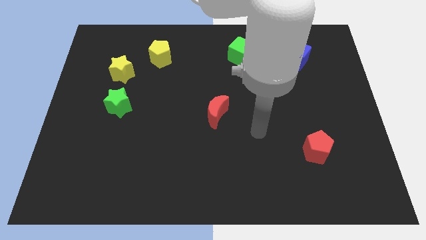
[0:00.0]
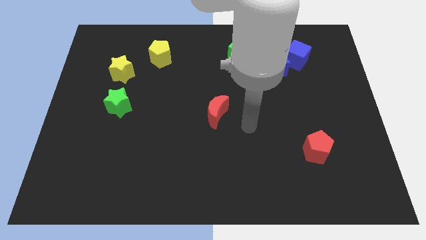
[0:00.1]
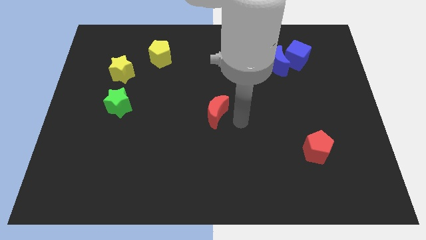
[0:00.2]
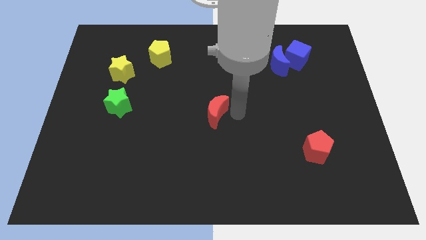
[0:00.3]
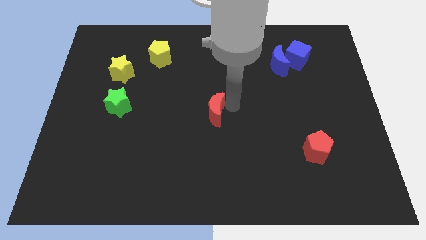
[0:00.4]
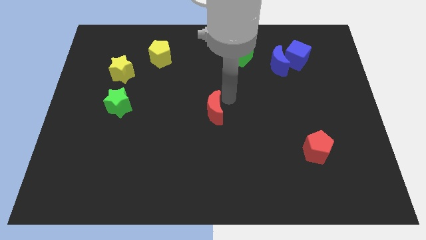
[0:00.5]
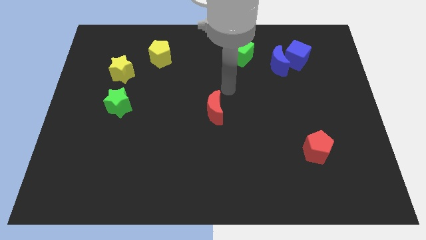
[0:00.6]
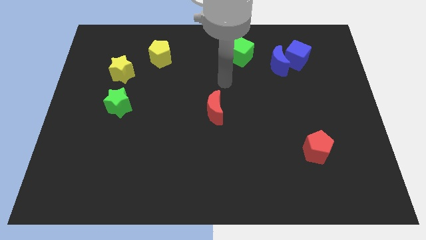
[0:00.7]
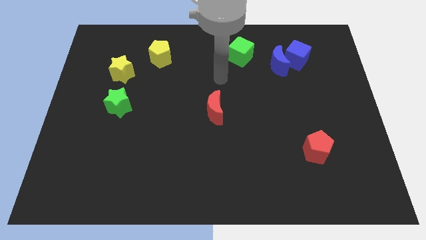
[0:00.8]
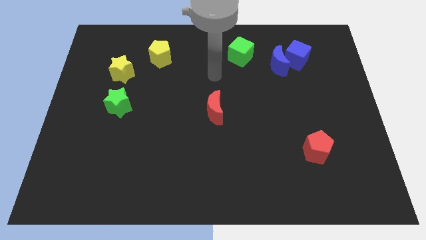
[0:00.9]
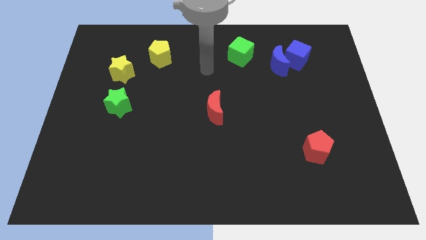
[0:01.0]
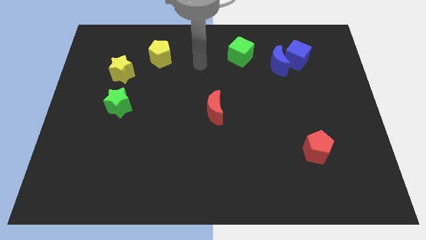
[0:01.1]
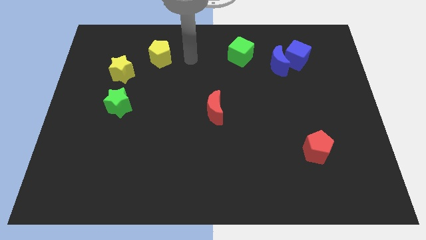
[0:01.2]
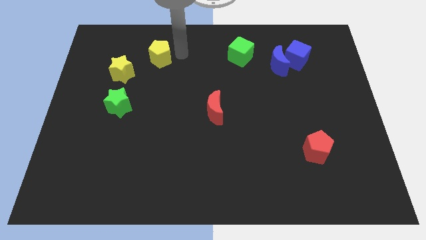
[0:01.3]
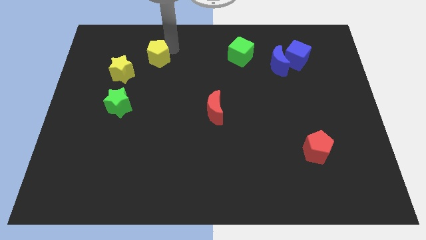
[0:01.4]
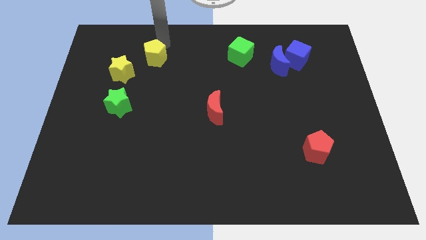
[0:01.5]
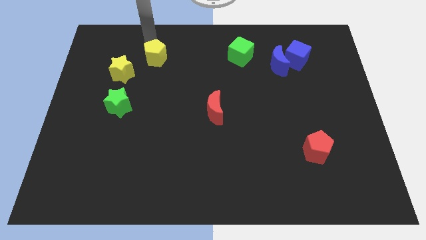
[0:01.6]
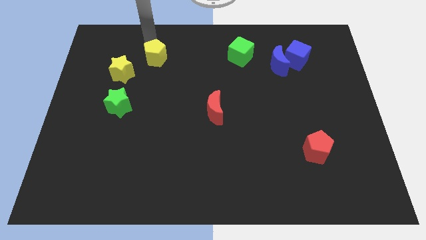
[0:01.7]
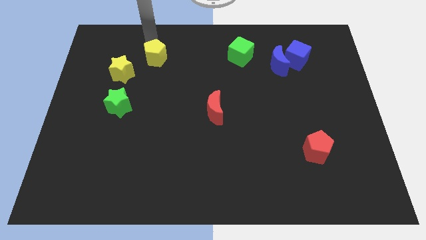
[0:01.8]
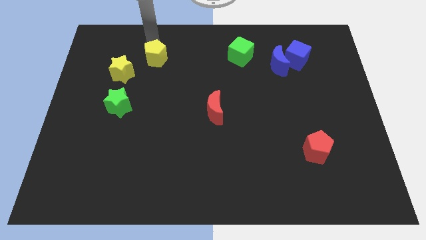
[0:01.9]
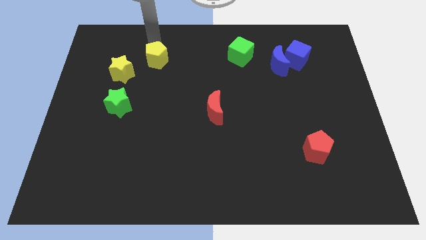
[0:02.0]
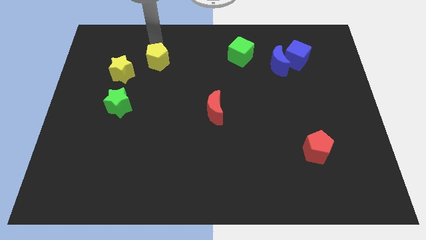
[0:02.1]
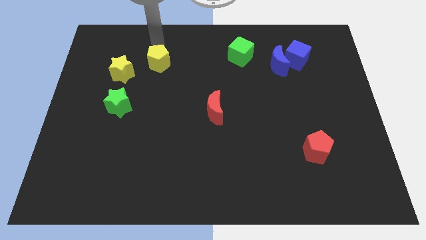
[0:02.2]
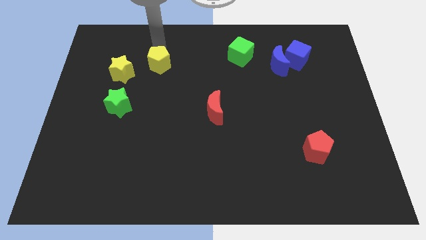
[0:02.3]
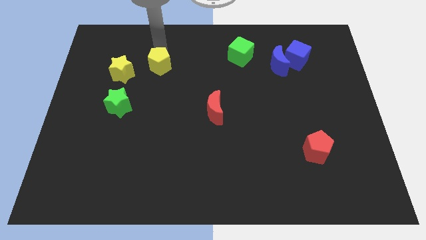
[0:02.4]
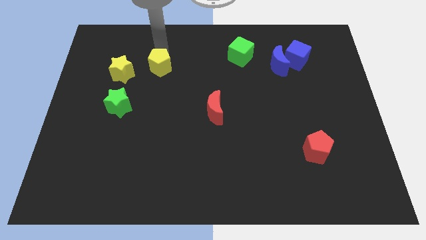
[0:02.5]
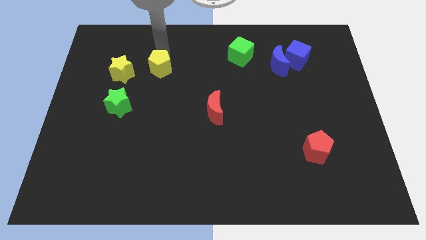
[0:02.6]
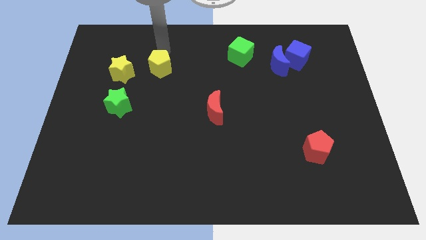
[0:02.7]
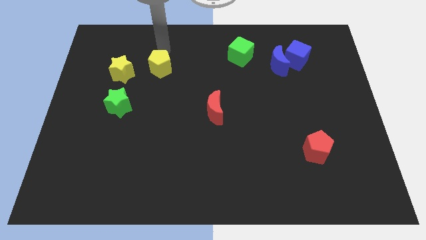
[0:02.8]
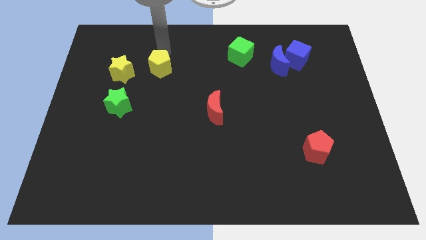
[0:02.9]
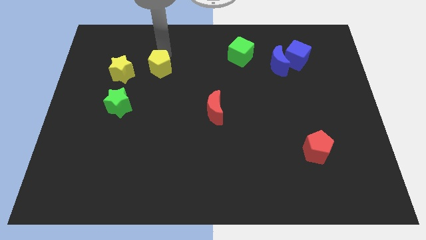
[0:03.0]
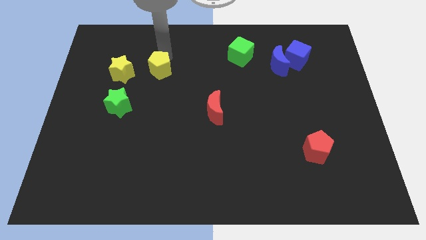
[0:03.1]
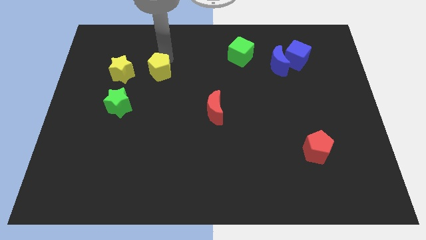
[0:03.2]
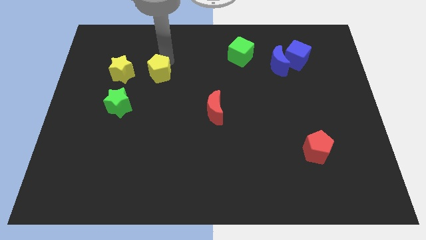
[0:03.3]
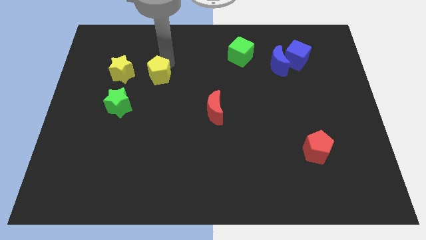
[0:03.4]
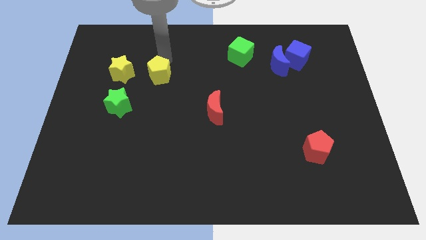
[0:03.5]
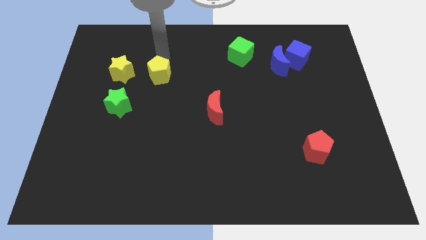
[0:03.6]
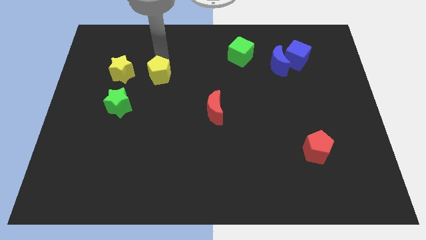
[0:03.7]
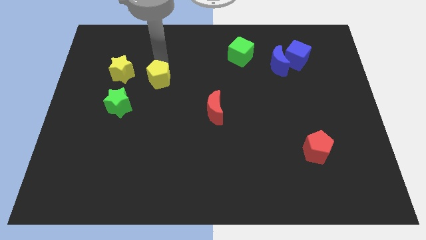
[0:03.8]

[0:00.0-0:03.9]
slightly push the yellow pentagon down

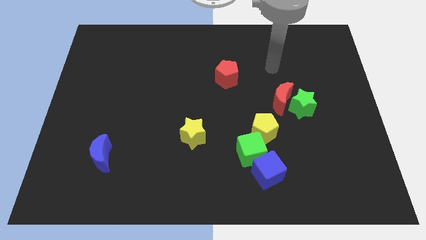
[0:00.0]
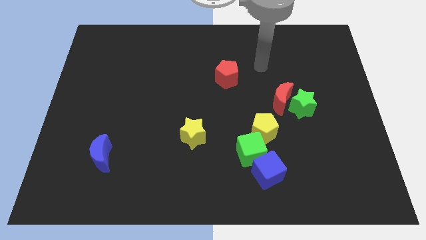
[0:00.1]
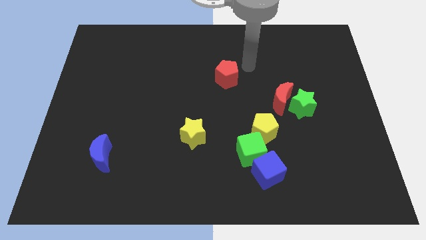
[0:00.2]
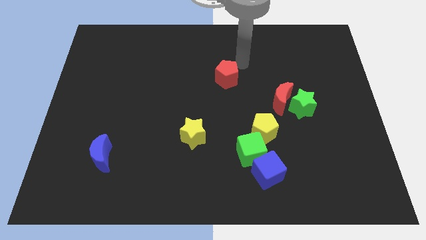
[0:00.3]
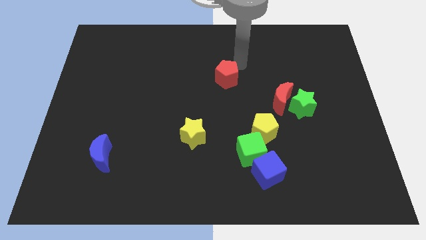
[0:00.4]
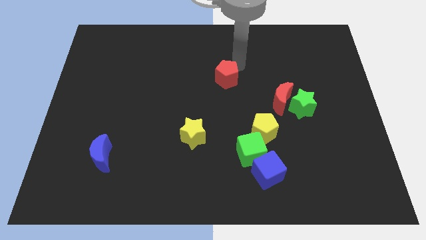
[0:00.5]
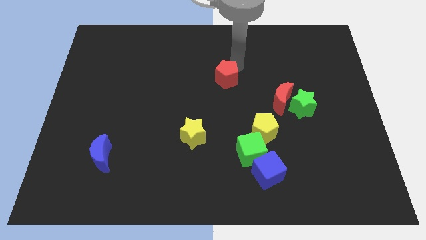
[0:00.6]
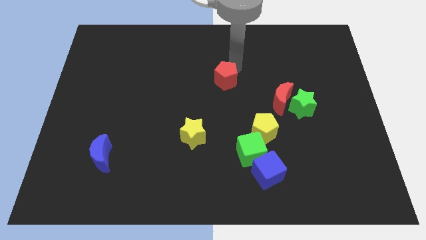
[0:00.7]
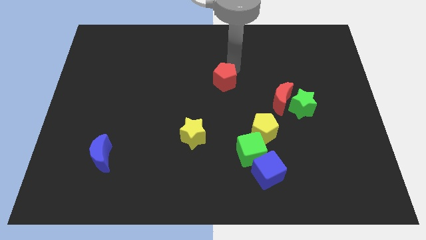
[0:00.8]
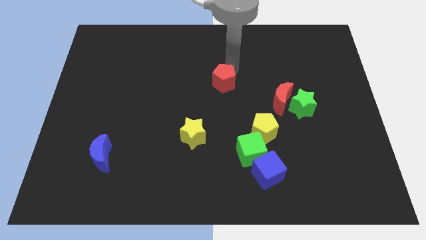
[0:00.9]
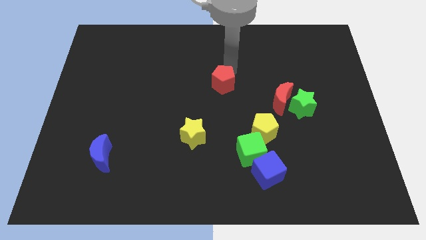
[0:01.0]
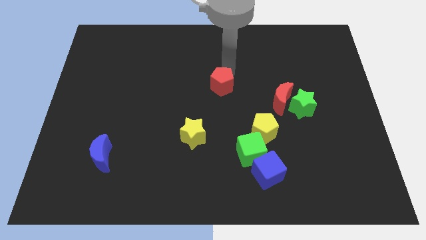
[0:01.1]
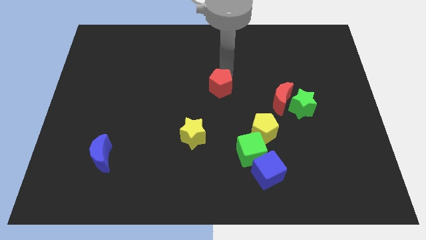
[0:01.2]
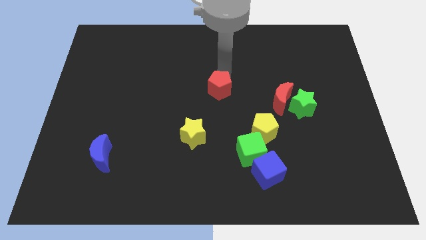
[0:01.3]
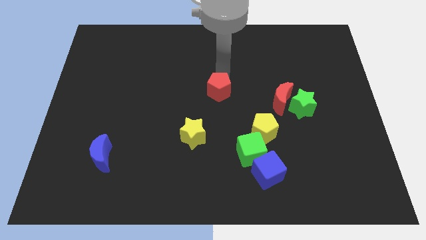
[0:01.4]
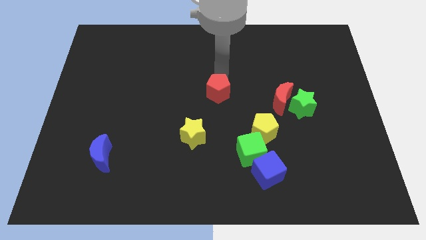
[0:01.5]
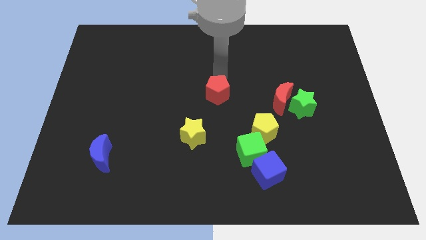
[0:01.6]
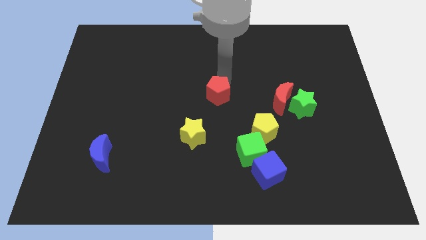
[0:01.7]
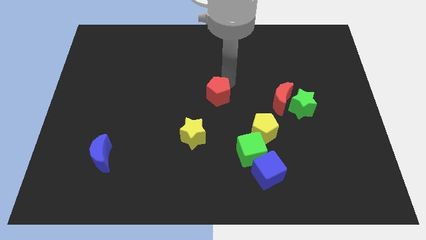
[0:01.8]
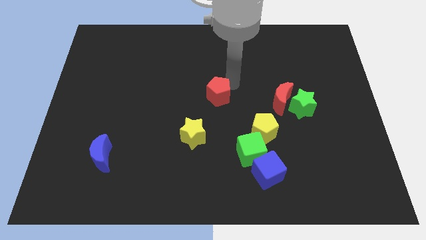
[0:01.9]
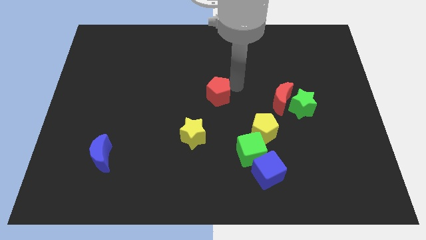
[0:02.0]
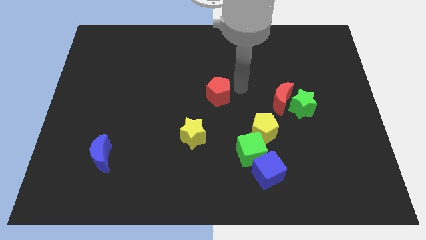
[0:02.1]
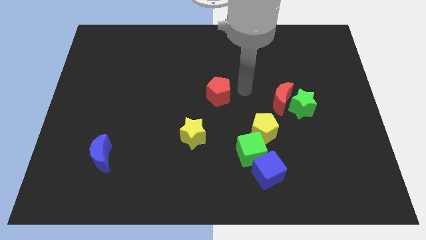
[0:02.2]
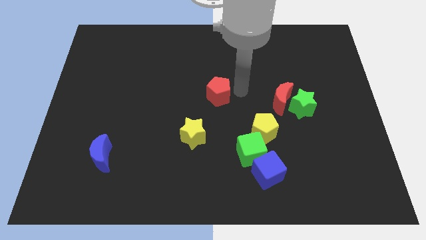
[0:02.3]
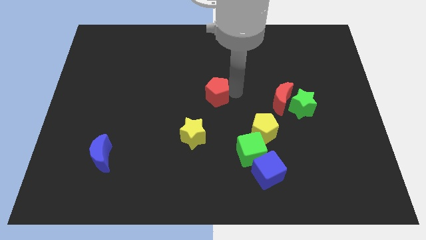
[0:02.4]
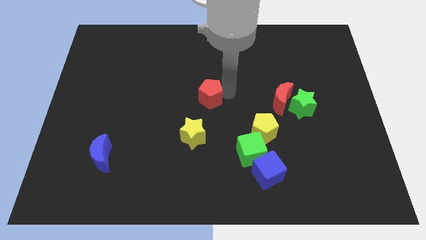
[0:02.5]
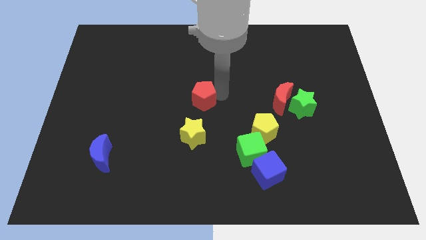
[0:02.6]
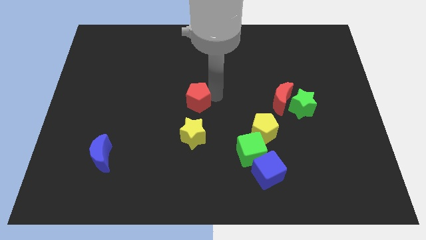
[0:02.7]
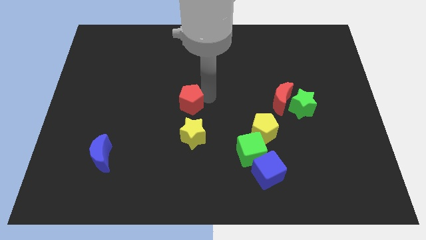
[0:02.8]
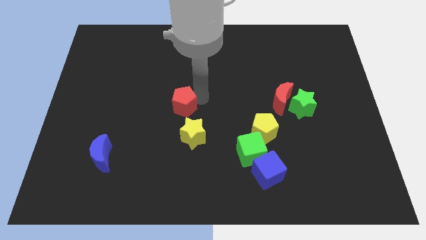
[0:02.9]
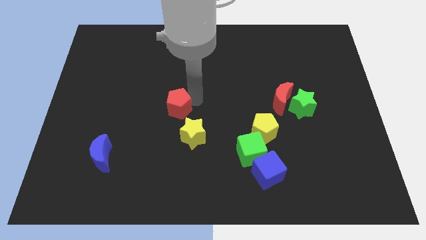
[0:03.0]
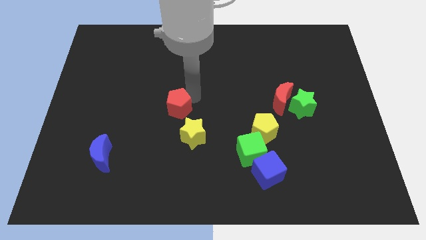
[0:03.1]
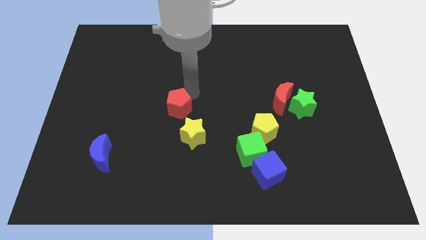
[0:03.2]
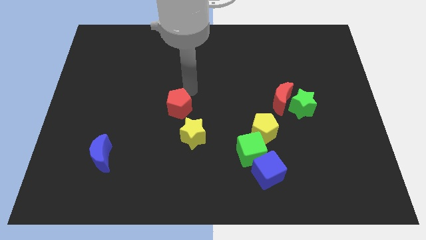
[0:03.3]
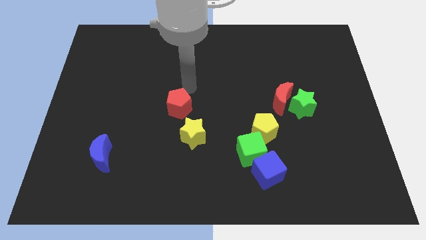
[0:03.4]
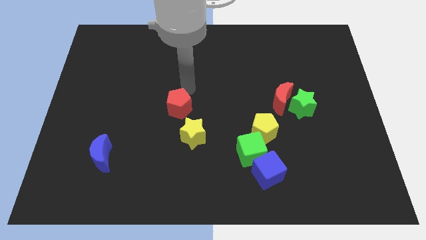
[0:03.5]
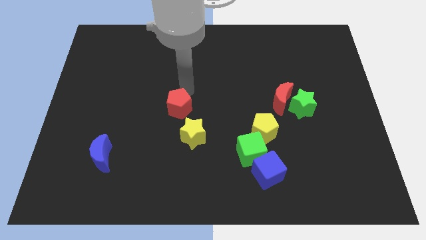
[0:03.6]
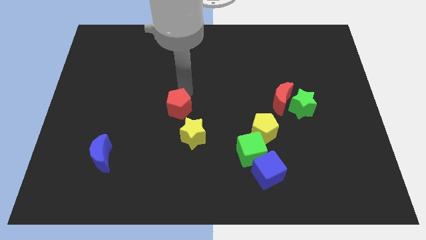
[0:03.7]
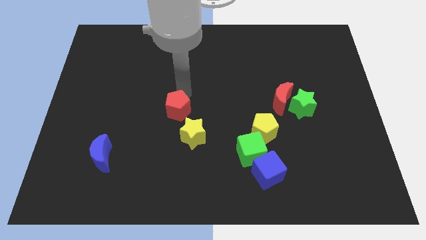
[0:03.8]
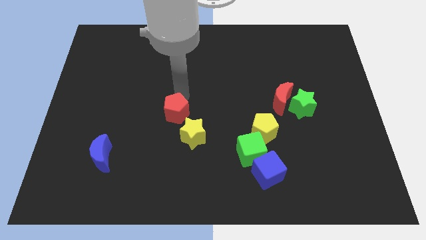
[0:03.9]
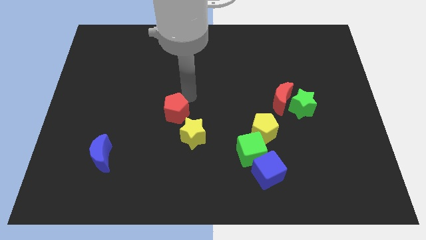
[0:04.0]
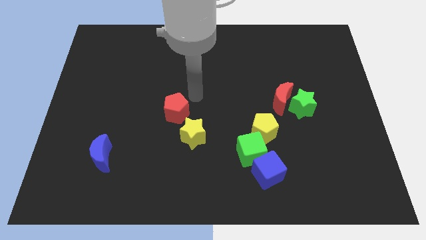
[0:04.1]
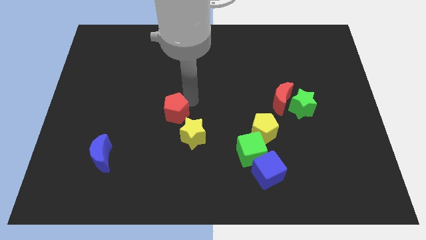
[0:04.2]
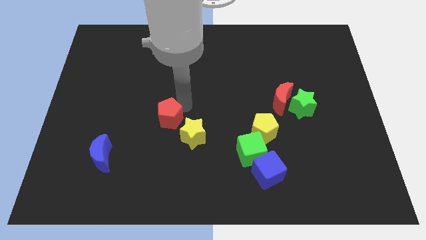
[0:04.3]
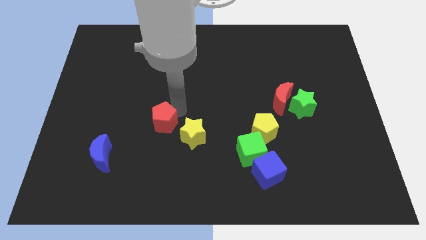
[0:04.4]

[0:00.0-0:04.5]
slide the red pentagon diagonally downwards and to the left
